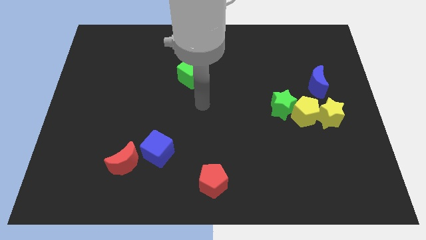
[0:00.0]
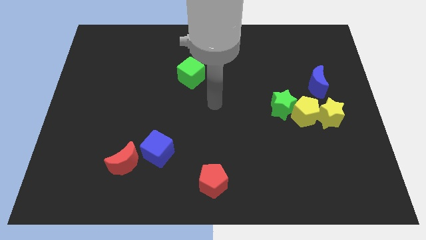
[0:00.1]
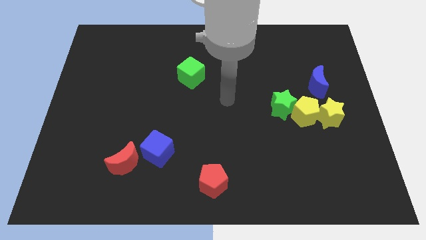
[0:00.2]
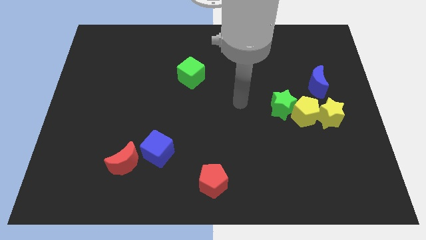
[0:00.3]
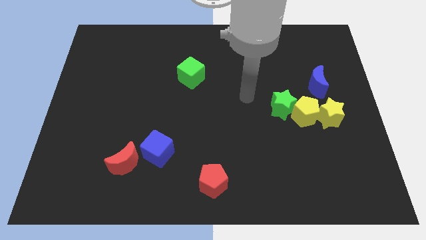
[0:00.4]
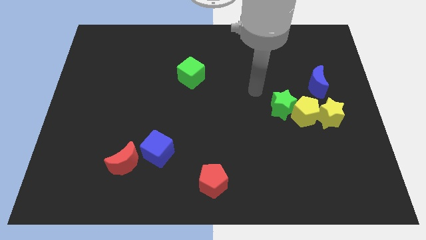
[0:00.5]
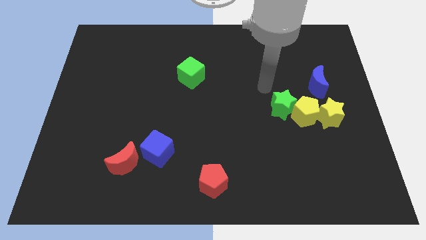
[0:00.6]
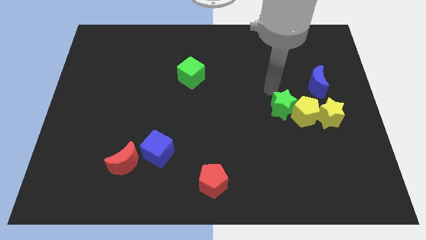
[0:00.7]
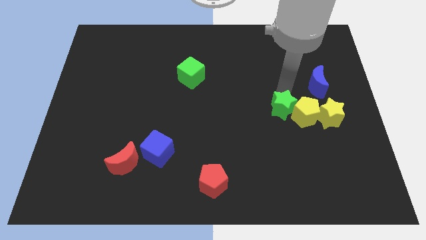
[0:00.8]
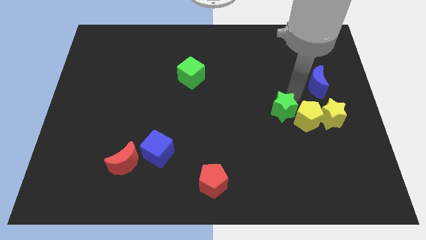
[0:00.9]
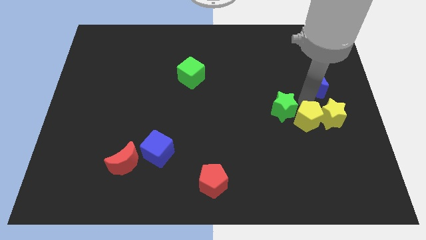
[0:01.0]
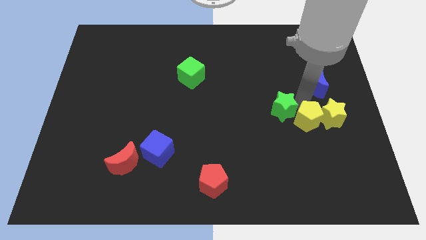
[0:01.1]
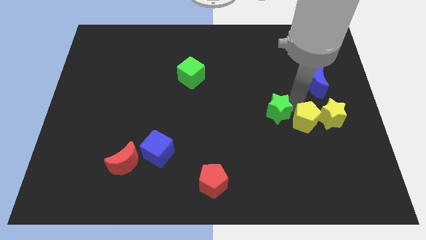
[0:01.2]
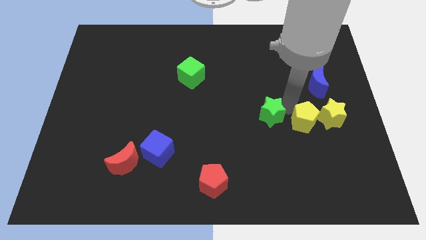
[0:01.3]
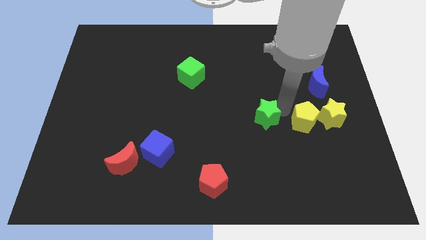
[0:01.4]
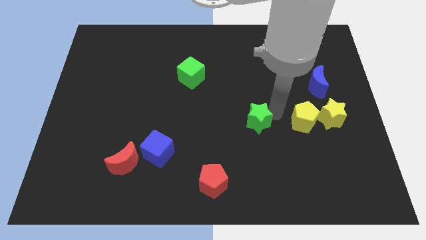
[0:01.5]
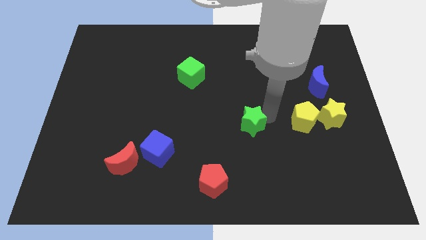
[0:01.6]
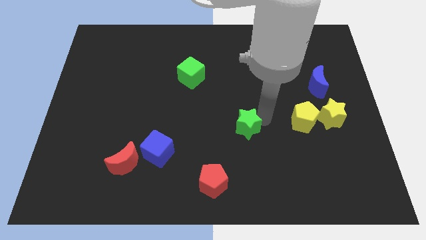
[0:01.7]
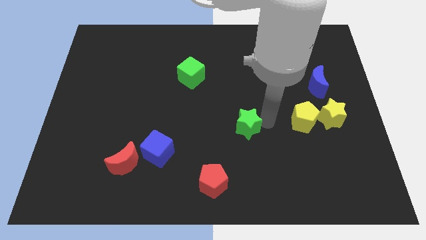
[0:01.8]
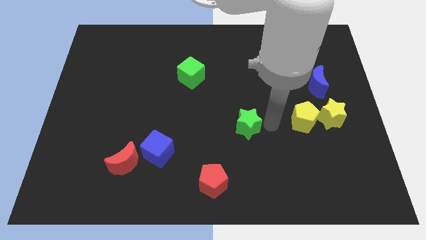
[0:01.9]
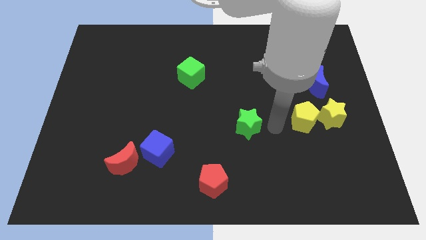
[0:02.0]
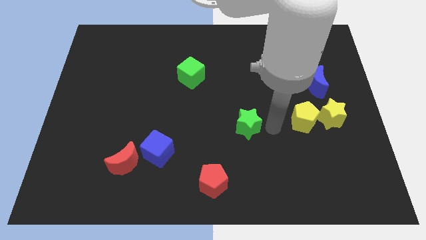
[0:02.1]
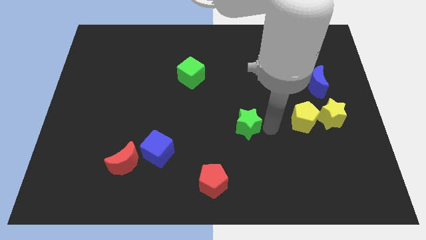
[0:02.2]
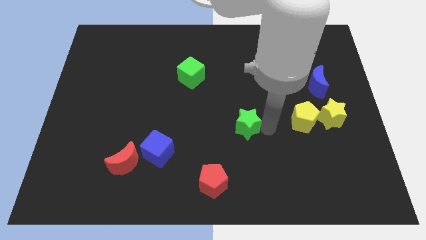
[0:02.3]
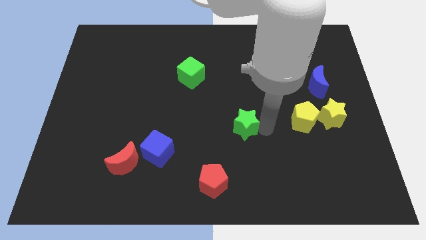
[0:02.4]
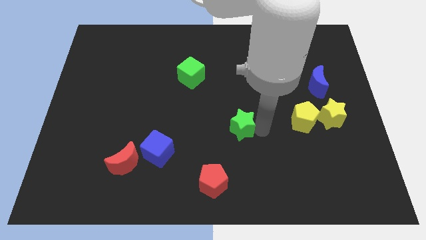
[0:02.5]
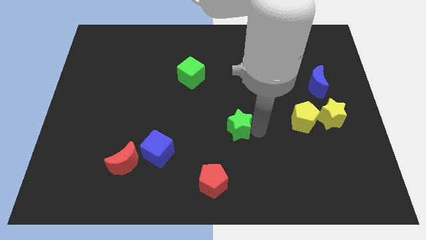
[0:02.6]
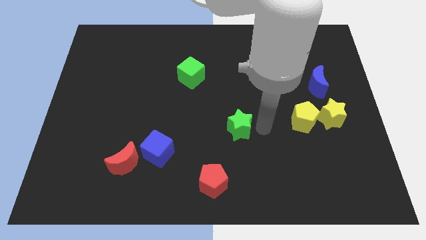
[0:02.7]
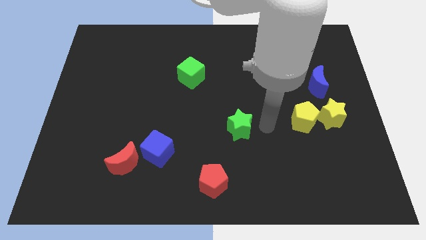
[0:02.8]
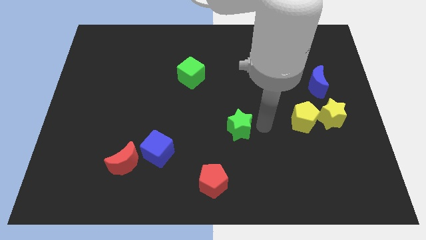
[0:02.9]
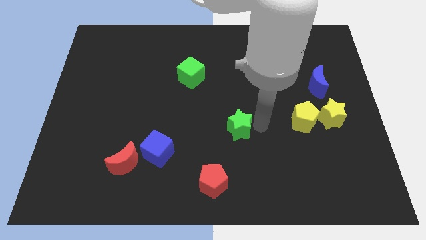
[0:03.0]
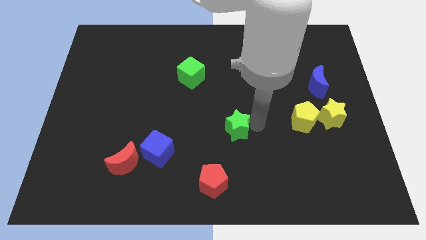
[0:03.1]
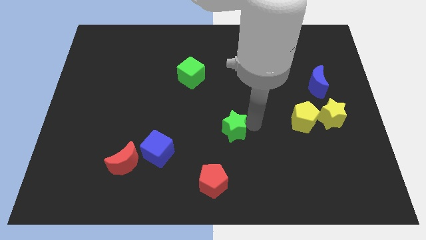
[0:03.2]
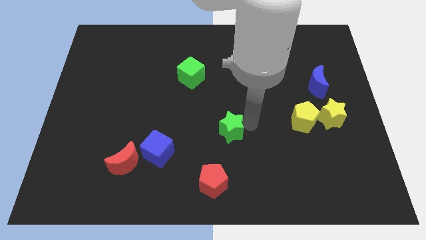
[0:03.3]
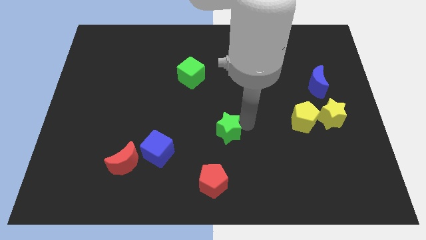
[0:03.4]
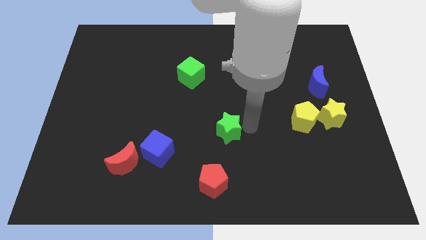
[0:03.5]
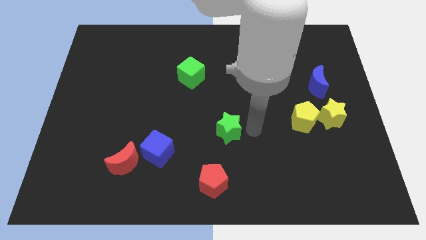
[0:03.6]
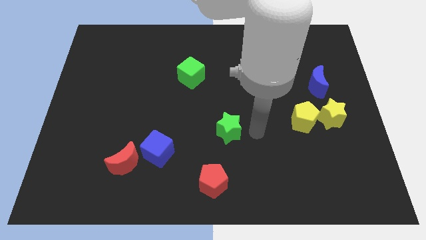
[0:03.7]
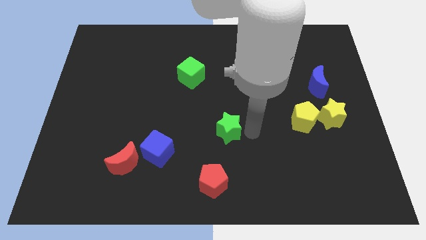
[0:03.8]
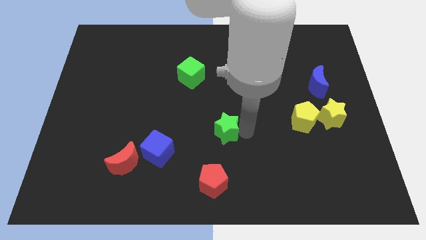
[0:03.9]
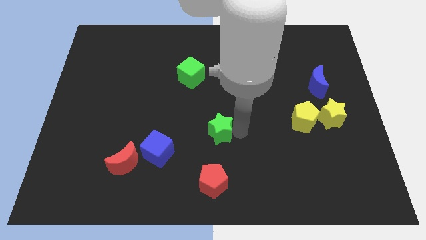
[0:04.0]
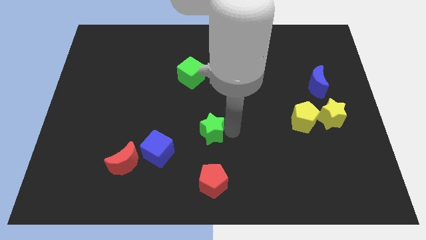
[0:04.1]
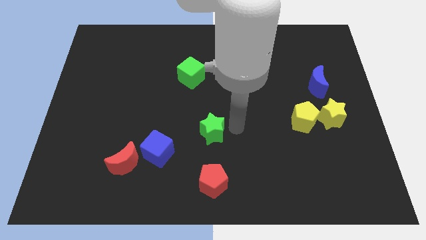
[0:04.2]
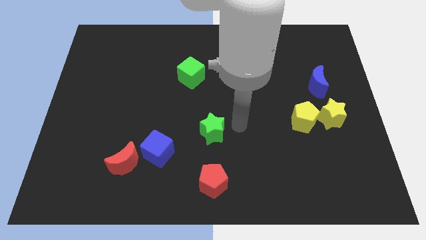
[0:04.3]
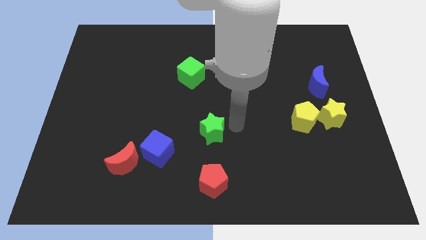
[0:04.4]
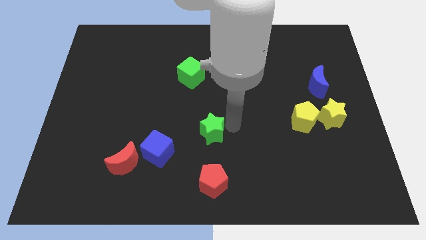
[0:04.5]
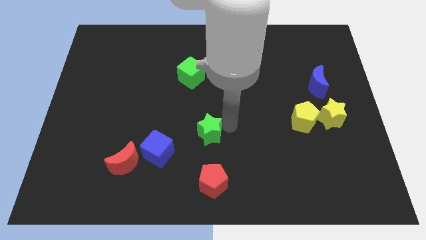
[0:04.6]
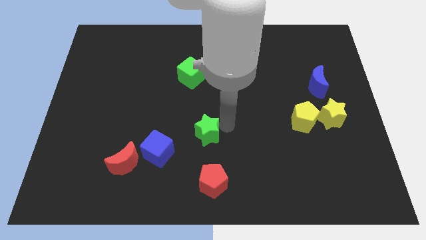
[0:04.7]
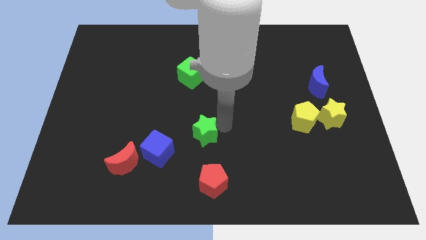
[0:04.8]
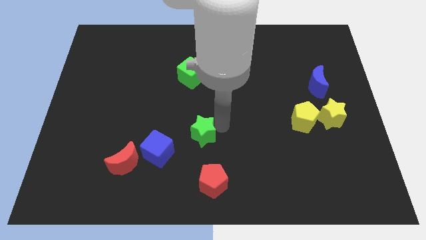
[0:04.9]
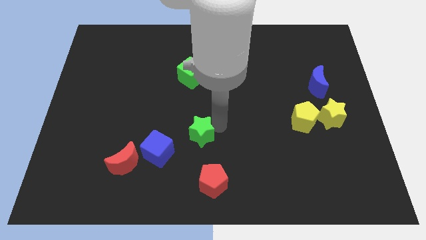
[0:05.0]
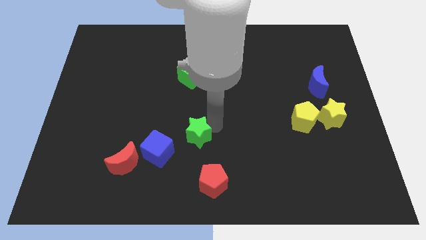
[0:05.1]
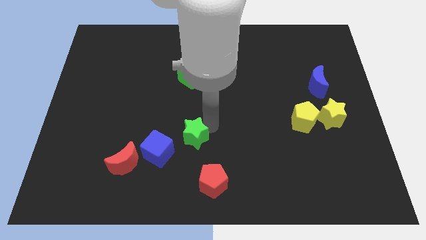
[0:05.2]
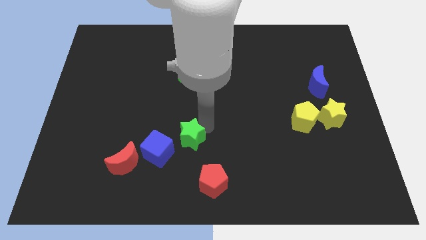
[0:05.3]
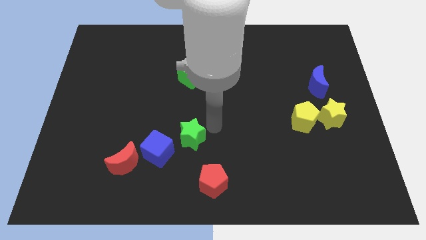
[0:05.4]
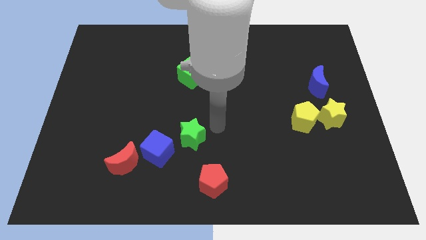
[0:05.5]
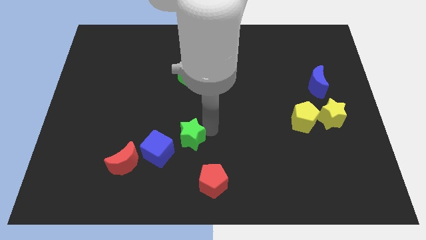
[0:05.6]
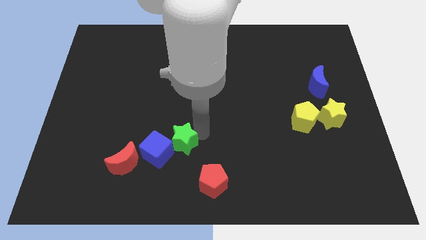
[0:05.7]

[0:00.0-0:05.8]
move the green star next to the blue cube
